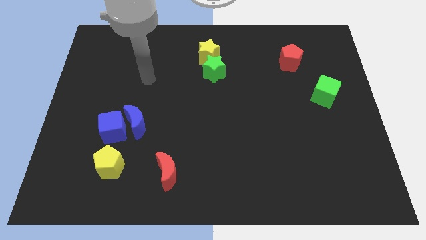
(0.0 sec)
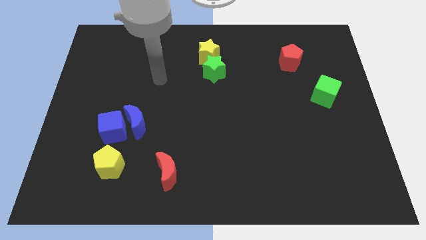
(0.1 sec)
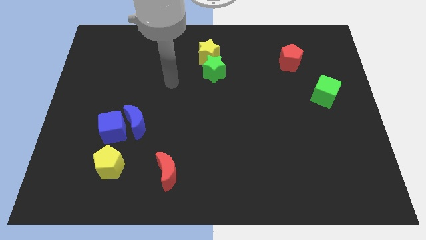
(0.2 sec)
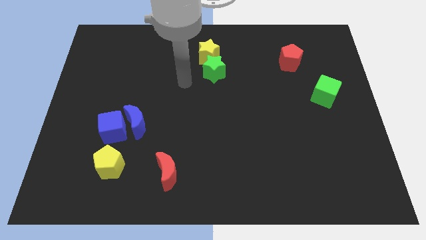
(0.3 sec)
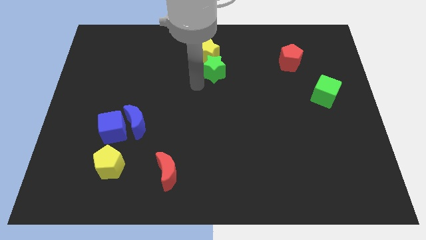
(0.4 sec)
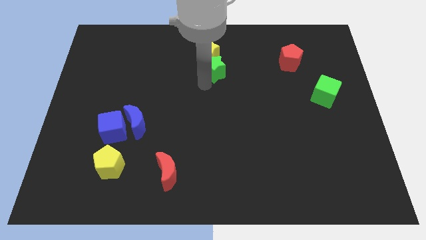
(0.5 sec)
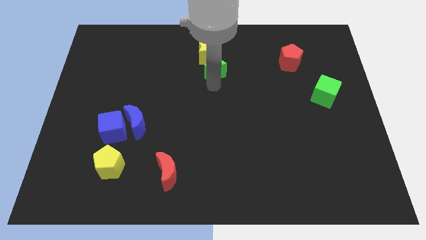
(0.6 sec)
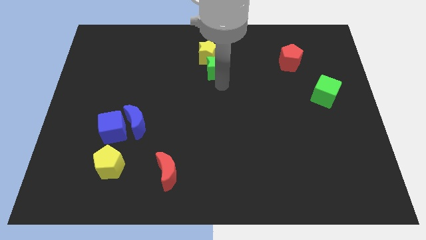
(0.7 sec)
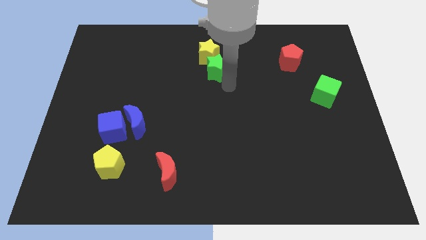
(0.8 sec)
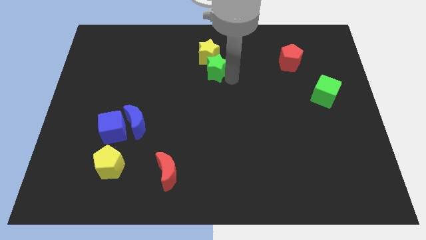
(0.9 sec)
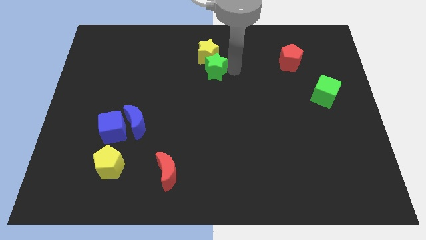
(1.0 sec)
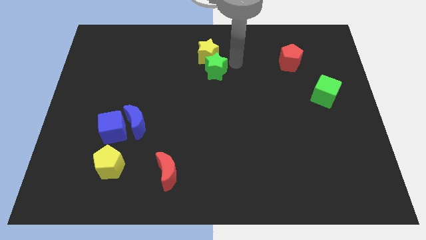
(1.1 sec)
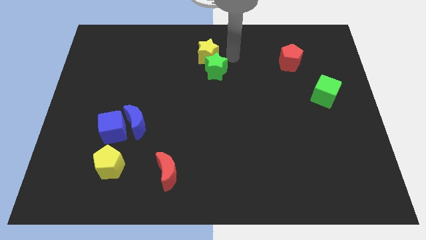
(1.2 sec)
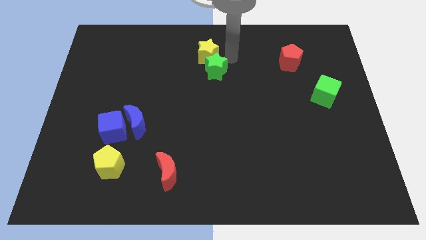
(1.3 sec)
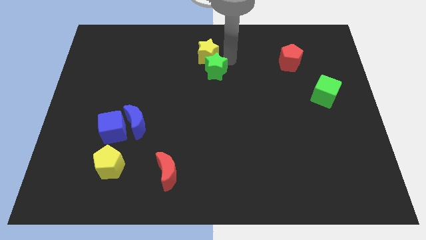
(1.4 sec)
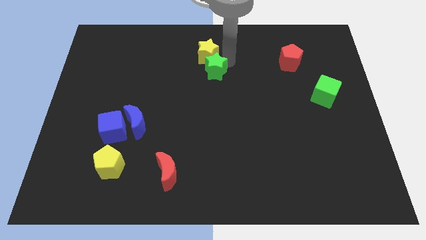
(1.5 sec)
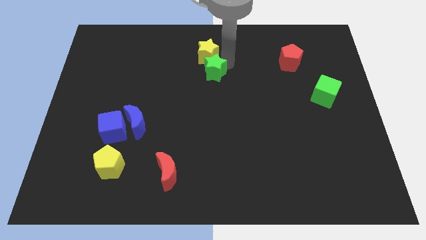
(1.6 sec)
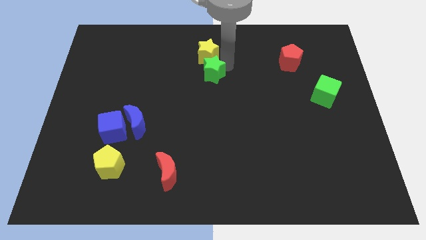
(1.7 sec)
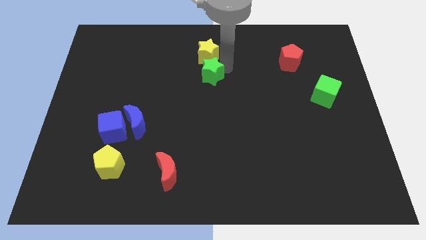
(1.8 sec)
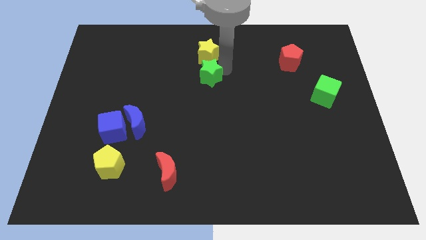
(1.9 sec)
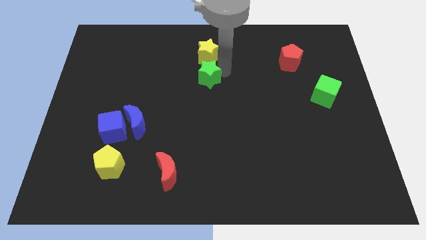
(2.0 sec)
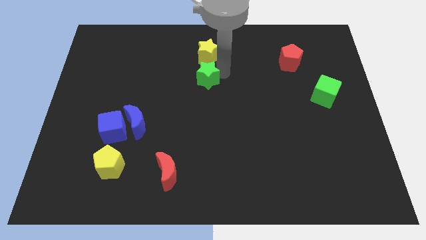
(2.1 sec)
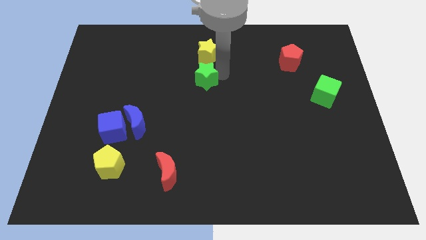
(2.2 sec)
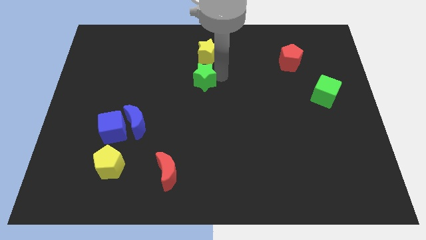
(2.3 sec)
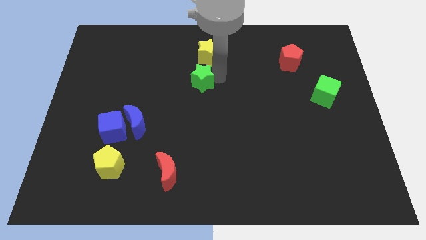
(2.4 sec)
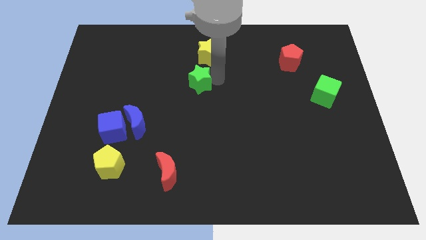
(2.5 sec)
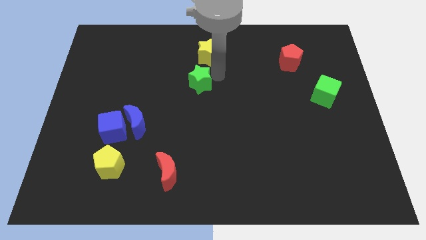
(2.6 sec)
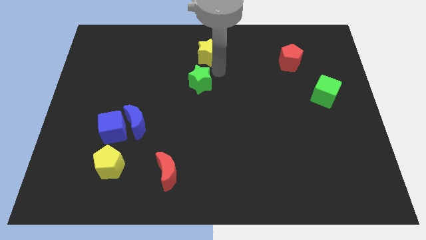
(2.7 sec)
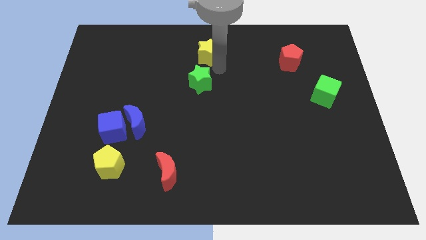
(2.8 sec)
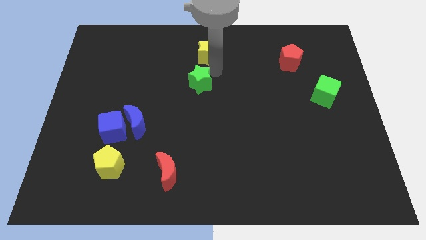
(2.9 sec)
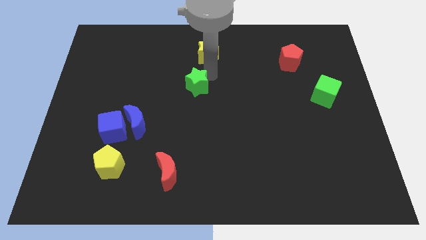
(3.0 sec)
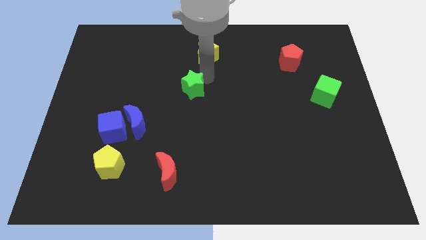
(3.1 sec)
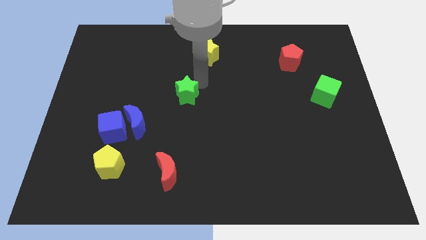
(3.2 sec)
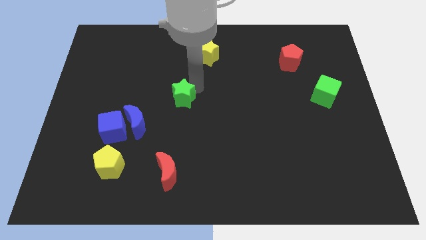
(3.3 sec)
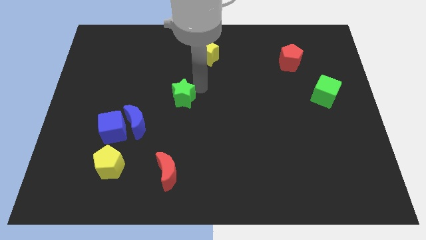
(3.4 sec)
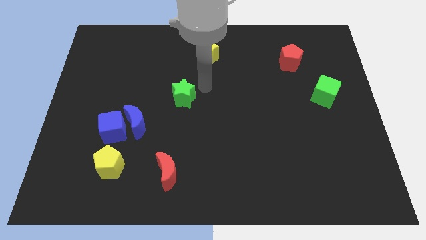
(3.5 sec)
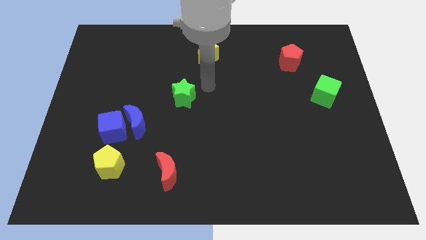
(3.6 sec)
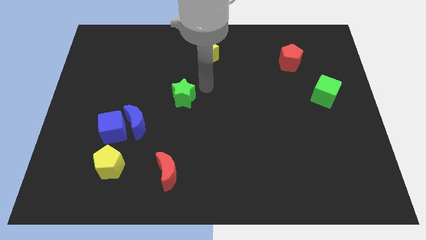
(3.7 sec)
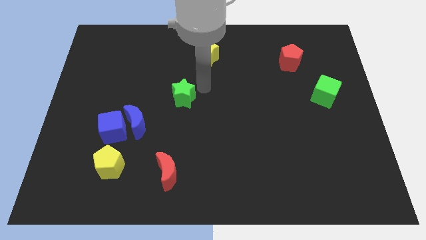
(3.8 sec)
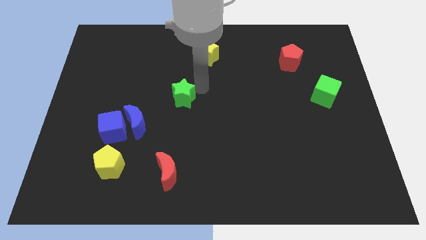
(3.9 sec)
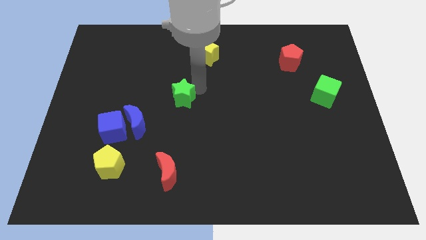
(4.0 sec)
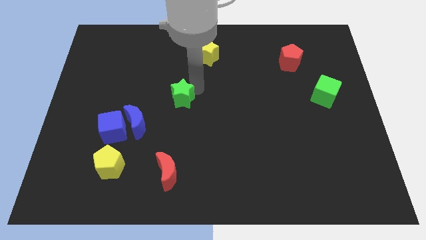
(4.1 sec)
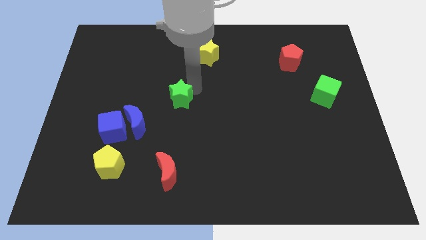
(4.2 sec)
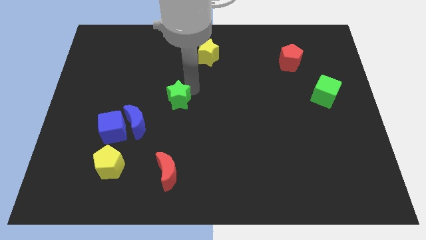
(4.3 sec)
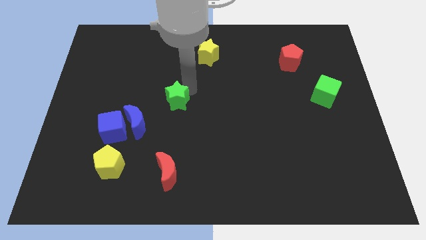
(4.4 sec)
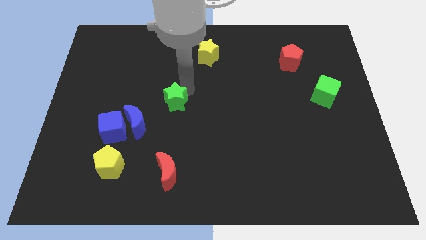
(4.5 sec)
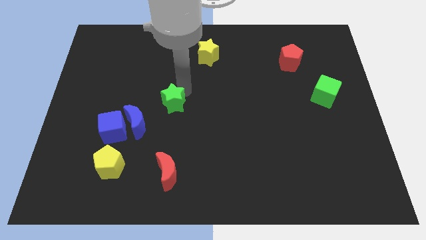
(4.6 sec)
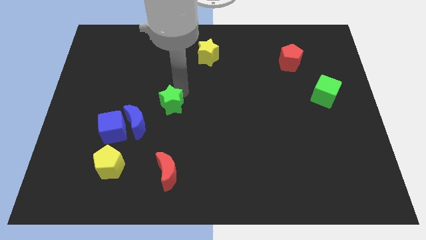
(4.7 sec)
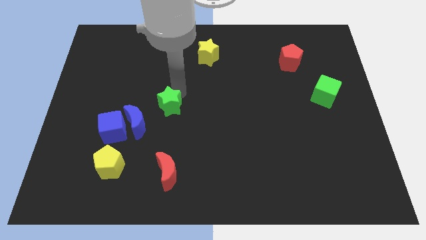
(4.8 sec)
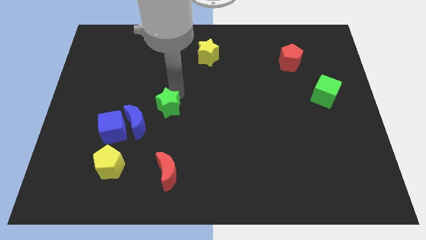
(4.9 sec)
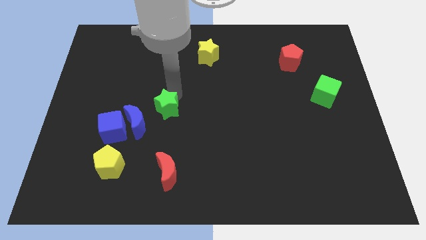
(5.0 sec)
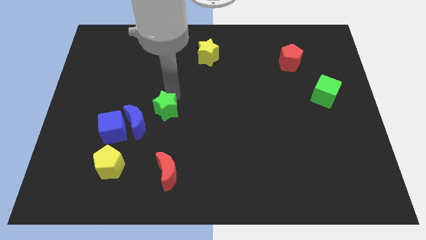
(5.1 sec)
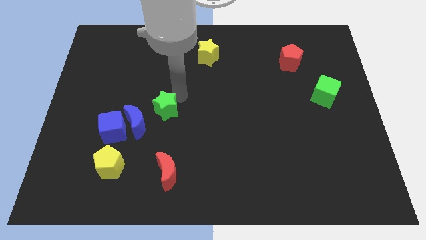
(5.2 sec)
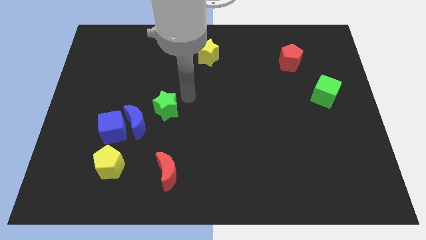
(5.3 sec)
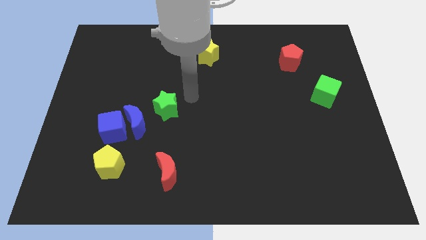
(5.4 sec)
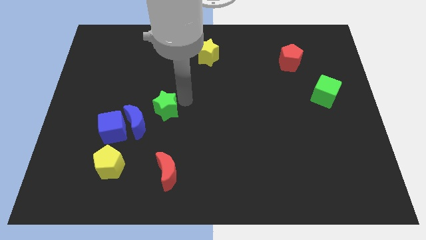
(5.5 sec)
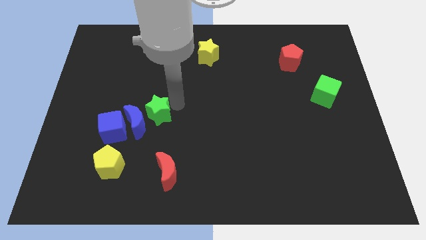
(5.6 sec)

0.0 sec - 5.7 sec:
push the green star close to the blue moon

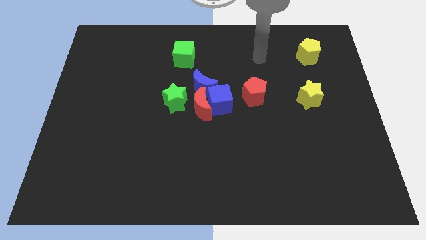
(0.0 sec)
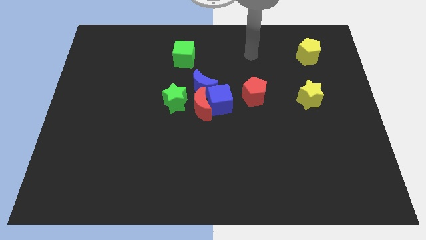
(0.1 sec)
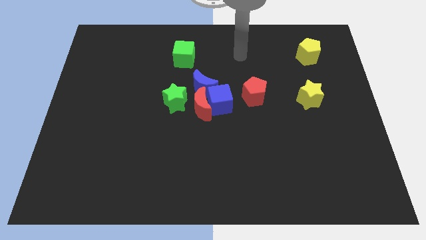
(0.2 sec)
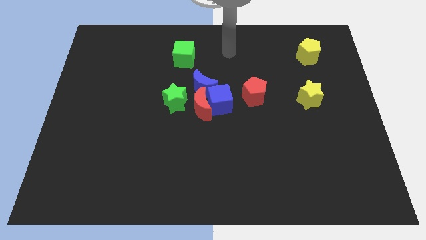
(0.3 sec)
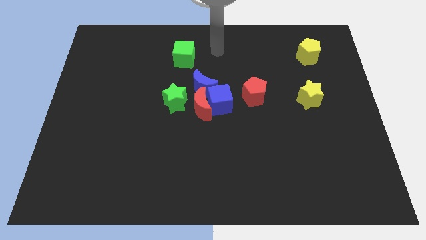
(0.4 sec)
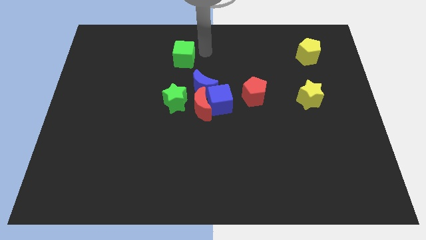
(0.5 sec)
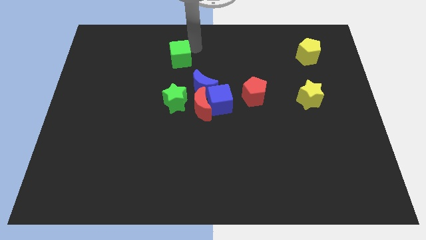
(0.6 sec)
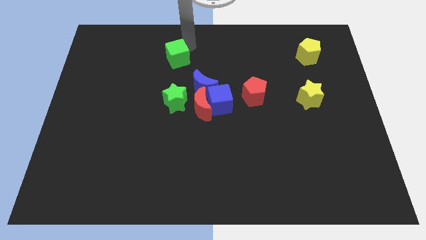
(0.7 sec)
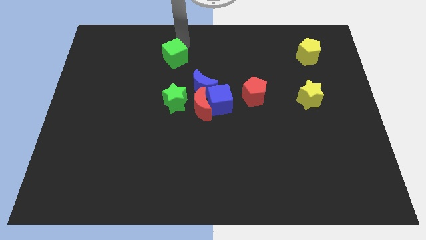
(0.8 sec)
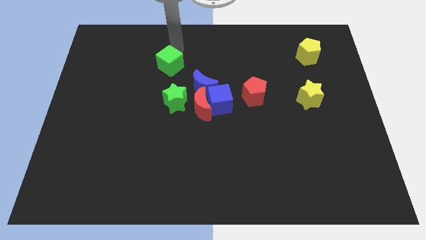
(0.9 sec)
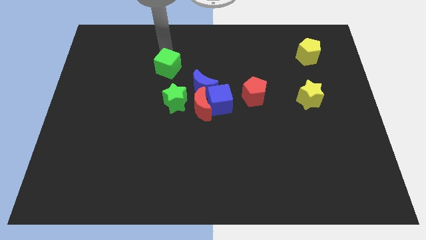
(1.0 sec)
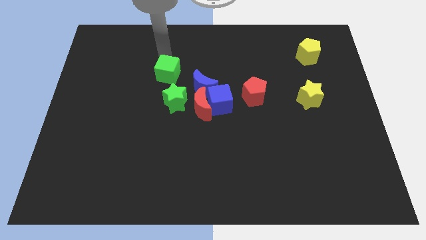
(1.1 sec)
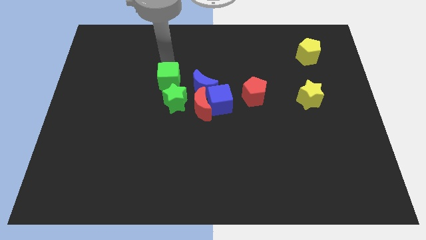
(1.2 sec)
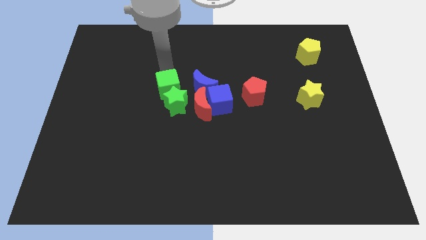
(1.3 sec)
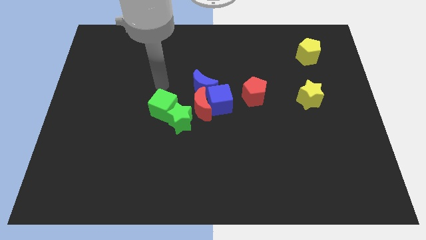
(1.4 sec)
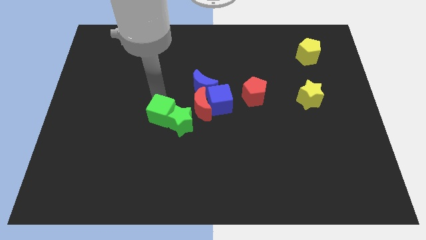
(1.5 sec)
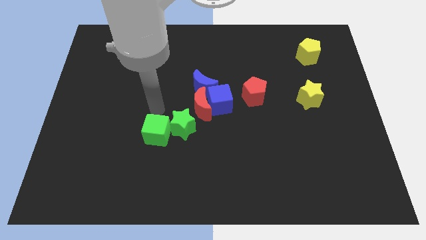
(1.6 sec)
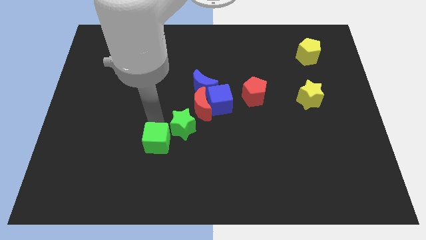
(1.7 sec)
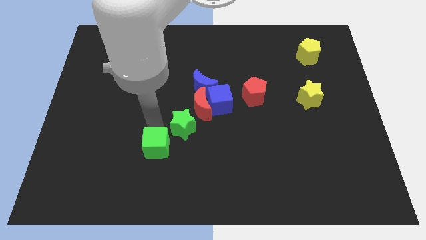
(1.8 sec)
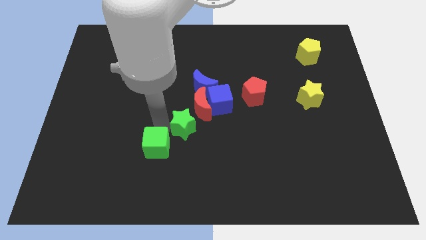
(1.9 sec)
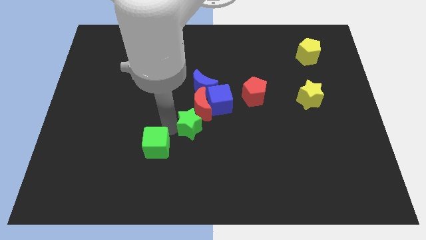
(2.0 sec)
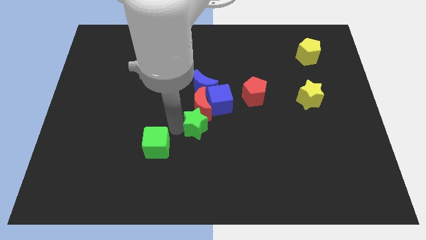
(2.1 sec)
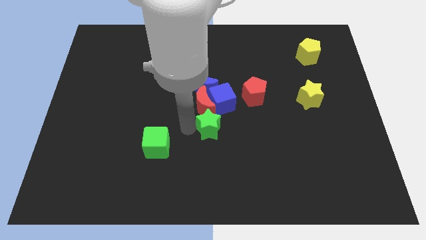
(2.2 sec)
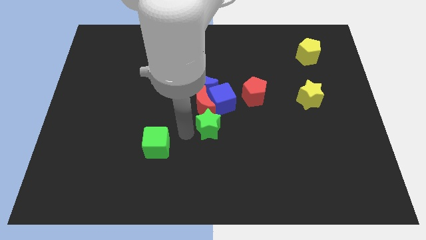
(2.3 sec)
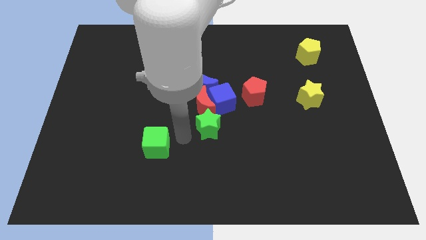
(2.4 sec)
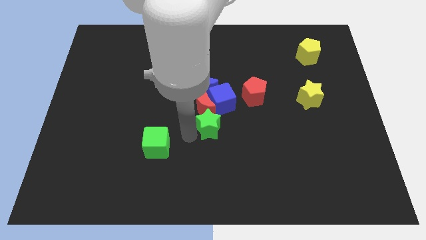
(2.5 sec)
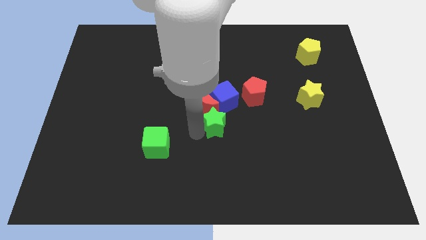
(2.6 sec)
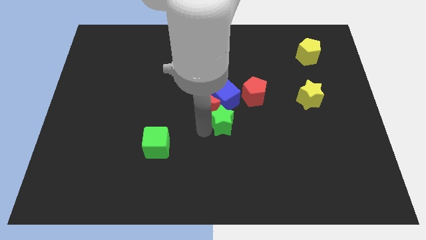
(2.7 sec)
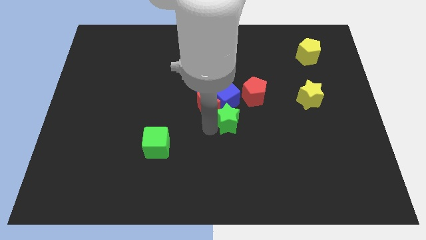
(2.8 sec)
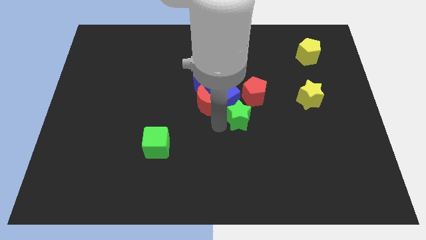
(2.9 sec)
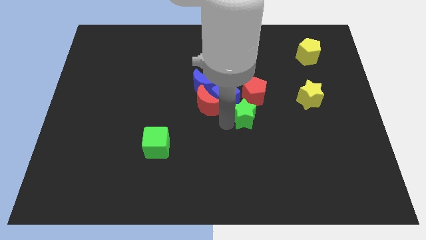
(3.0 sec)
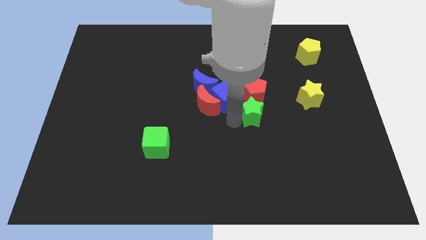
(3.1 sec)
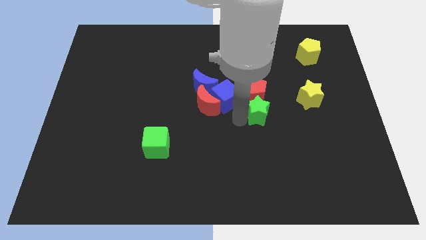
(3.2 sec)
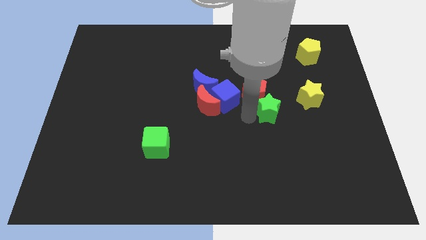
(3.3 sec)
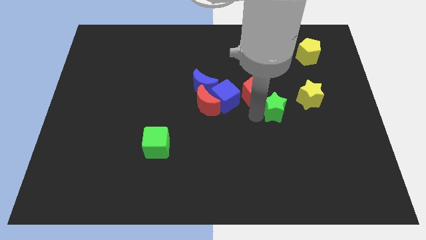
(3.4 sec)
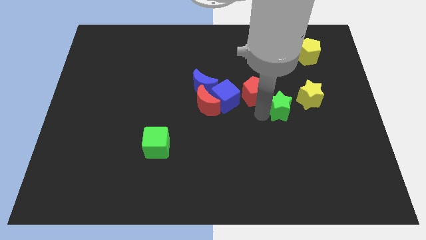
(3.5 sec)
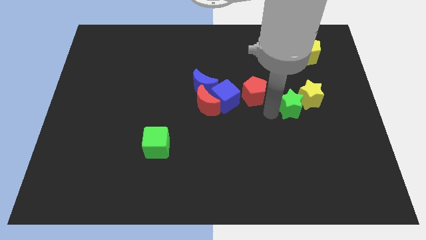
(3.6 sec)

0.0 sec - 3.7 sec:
push the green star towards the yellow star
